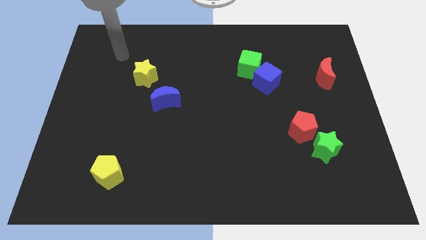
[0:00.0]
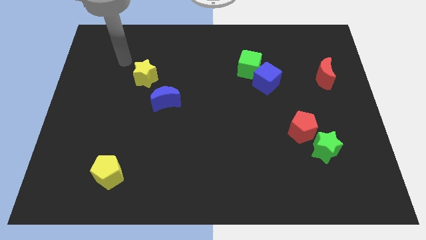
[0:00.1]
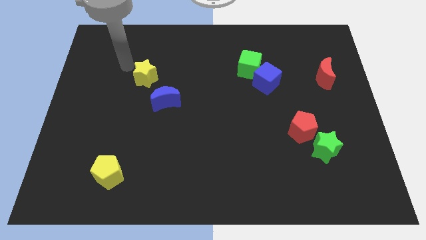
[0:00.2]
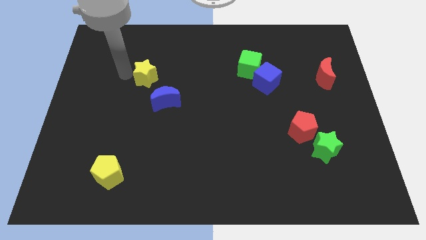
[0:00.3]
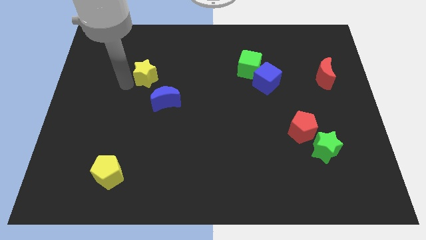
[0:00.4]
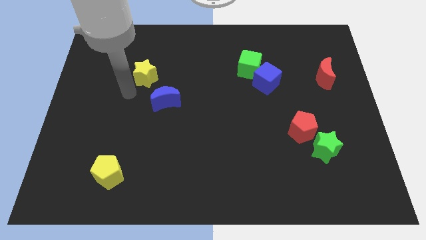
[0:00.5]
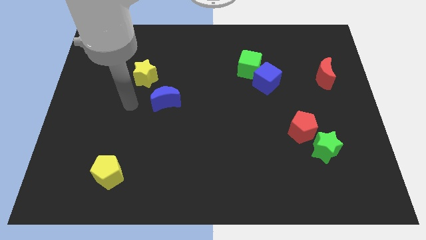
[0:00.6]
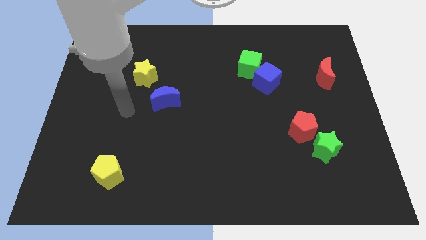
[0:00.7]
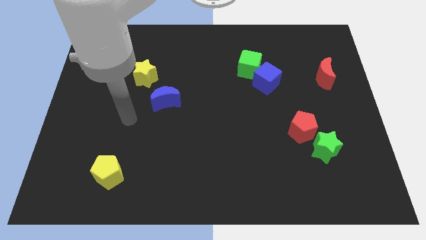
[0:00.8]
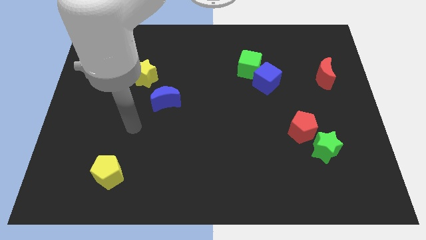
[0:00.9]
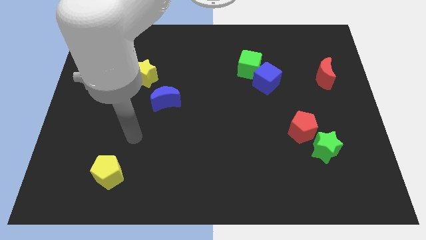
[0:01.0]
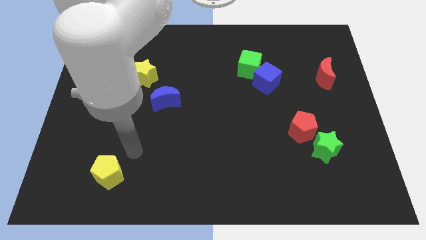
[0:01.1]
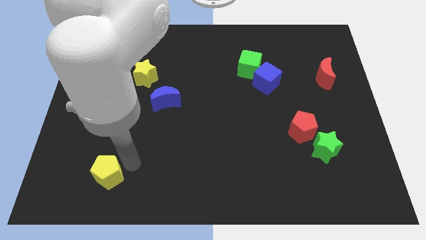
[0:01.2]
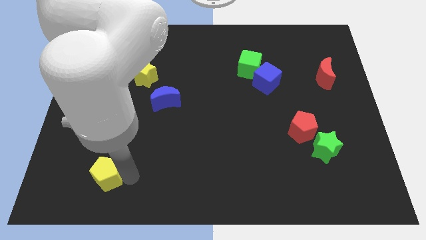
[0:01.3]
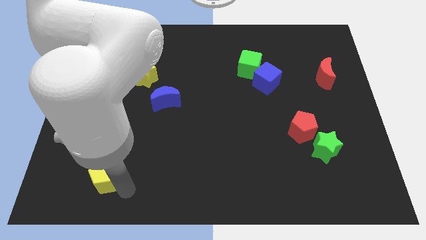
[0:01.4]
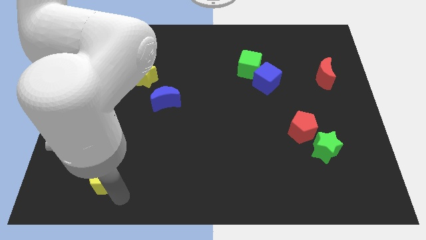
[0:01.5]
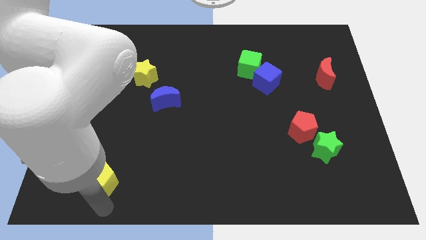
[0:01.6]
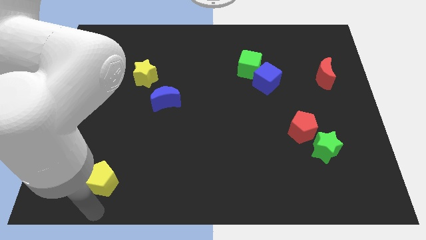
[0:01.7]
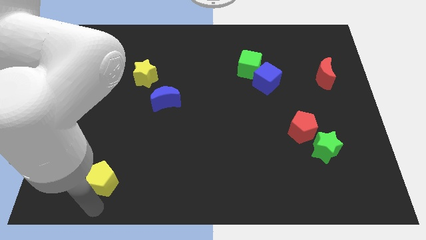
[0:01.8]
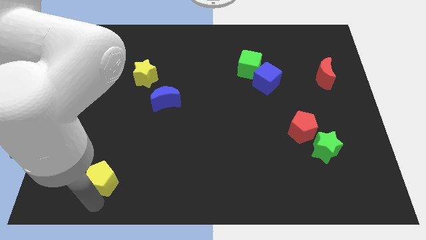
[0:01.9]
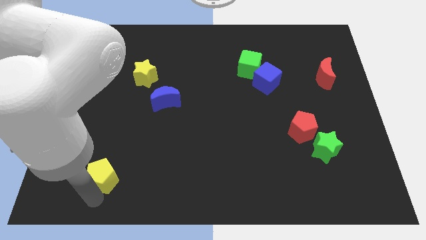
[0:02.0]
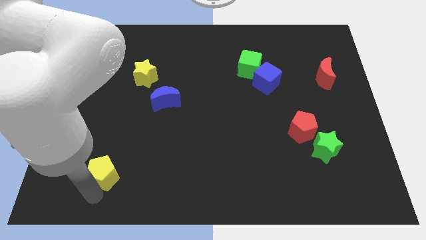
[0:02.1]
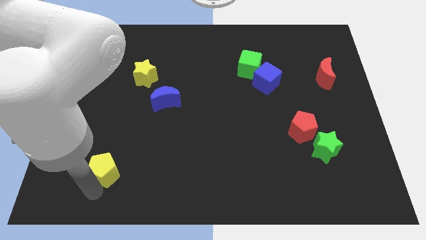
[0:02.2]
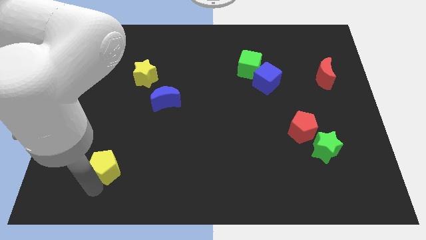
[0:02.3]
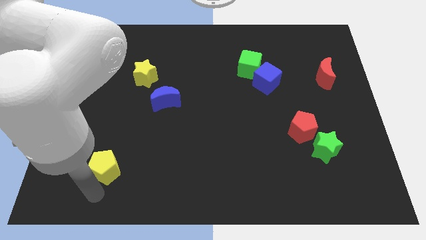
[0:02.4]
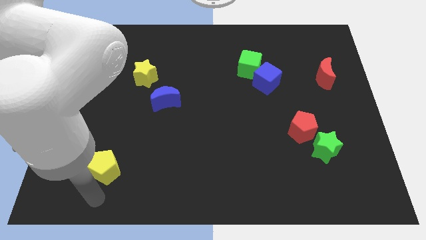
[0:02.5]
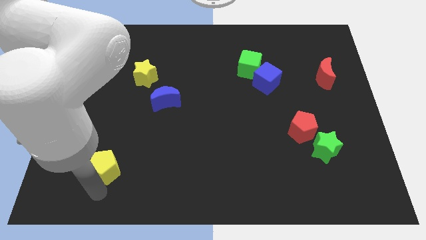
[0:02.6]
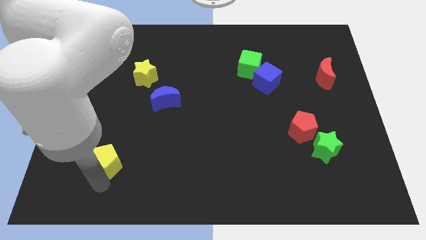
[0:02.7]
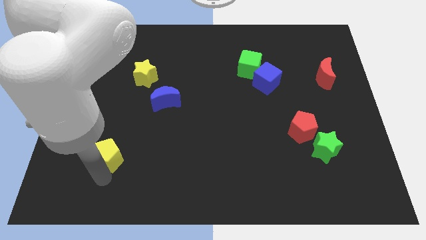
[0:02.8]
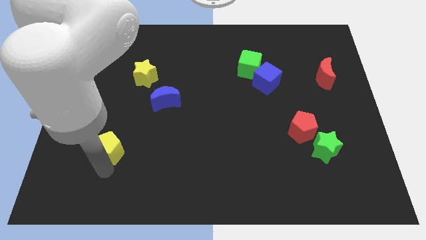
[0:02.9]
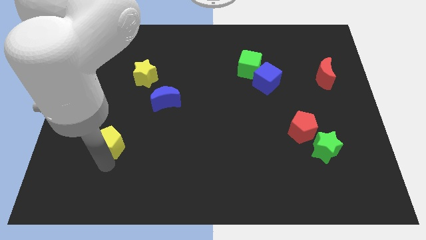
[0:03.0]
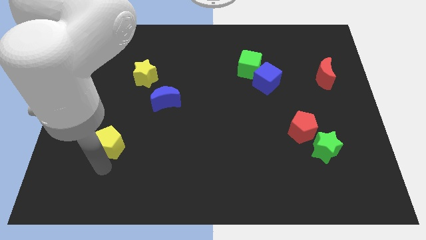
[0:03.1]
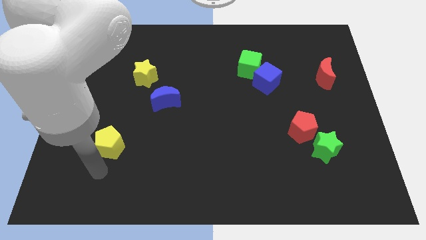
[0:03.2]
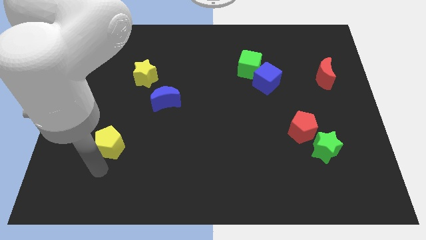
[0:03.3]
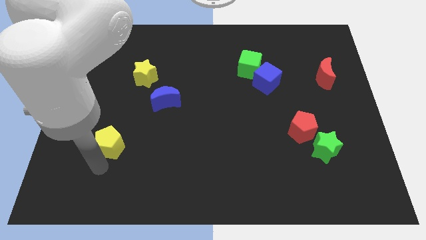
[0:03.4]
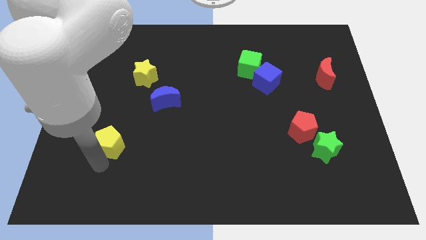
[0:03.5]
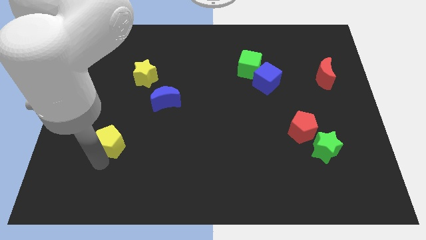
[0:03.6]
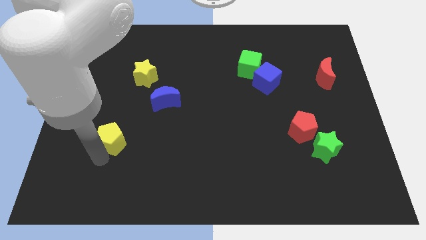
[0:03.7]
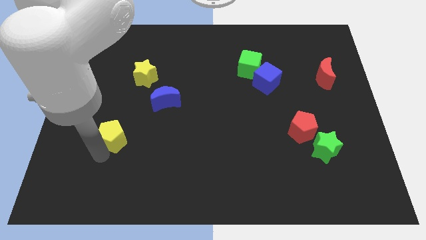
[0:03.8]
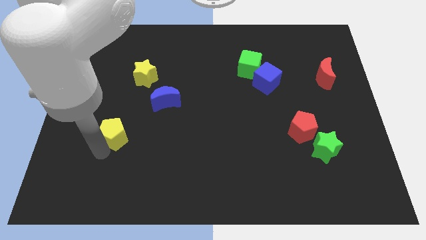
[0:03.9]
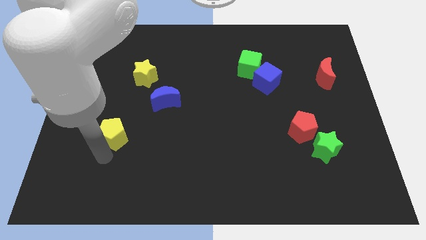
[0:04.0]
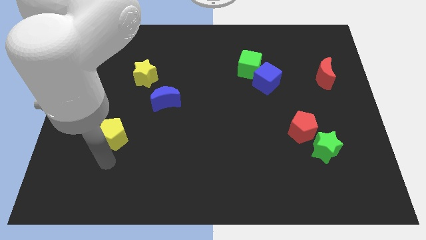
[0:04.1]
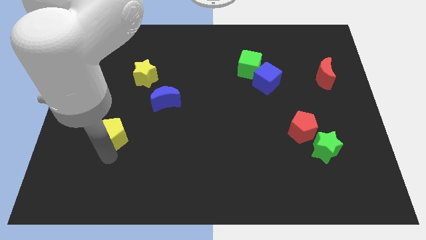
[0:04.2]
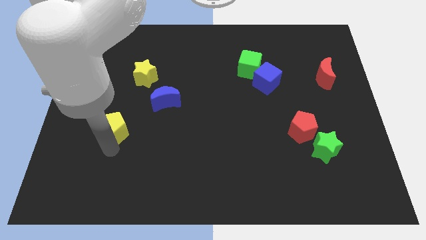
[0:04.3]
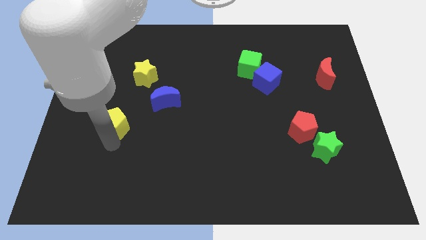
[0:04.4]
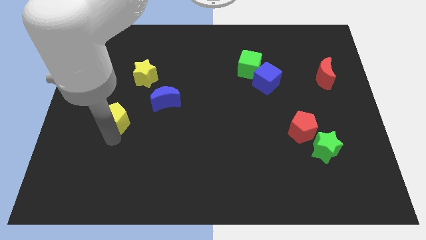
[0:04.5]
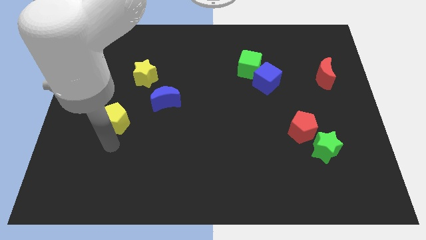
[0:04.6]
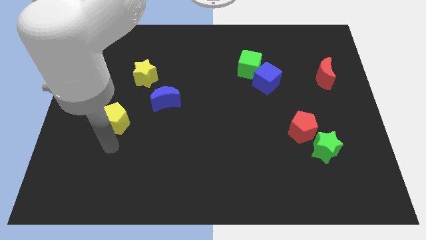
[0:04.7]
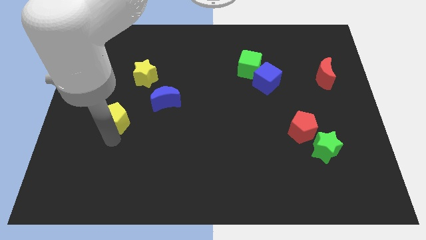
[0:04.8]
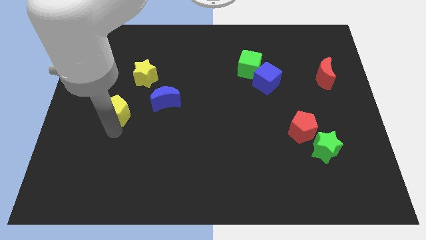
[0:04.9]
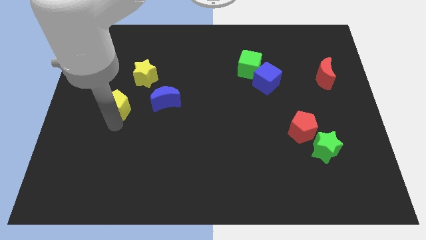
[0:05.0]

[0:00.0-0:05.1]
push the yellow pentagon to the bottom left side of the yellow star

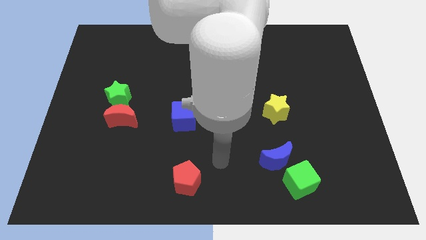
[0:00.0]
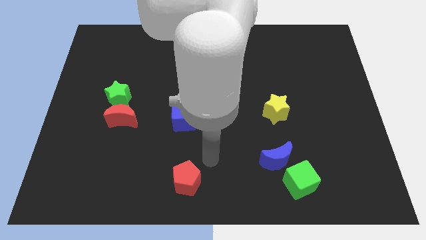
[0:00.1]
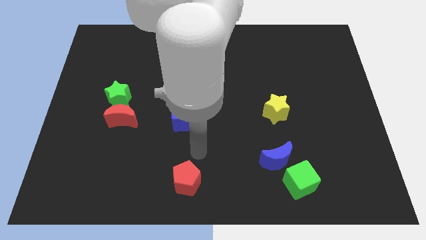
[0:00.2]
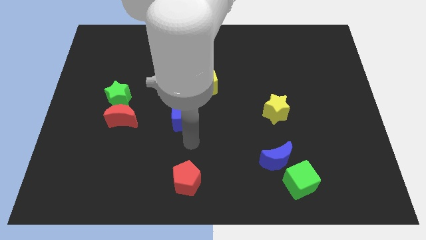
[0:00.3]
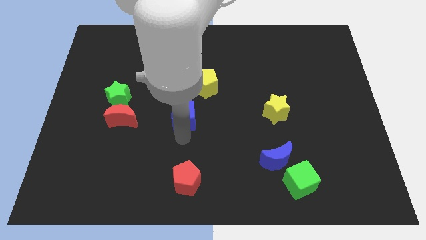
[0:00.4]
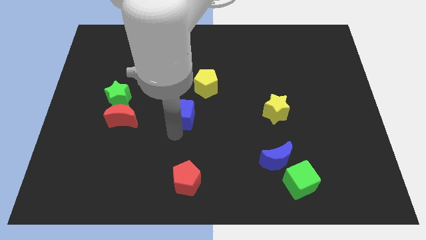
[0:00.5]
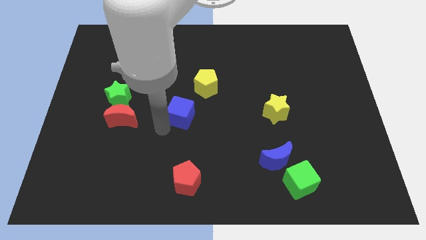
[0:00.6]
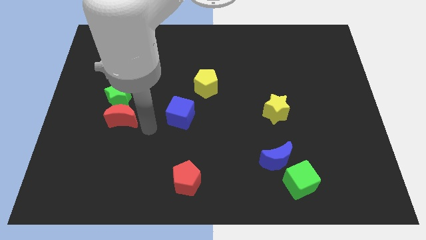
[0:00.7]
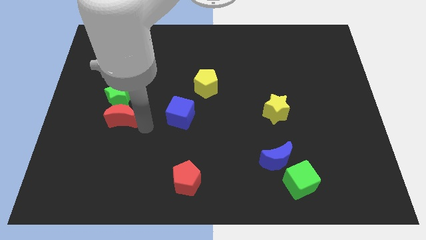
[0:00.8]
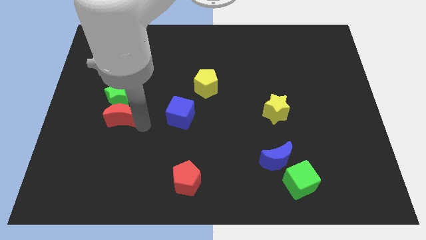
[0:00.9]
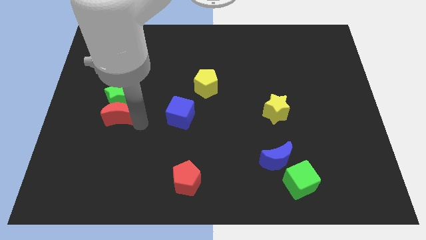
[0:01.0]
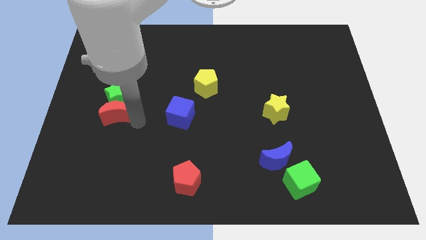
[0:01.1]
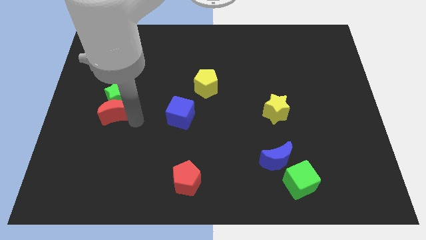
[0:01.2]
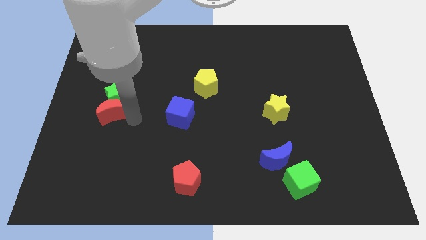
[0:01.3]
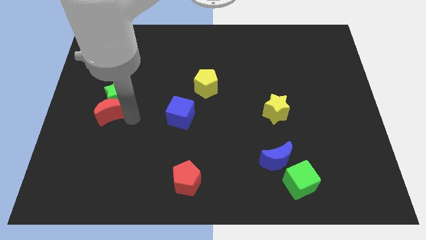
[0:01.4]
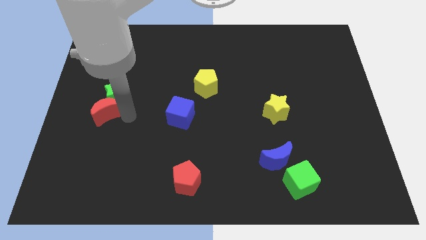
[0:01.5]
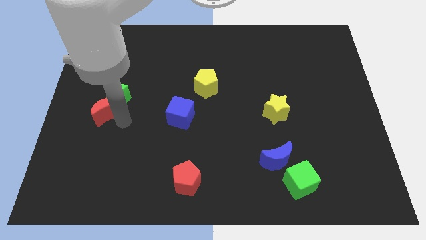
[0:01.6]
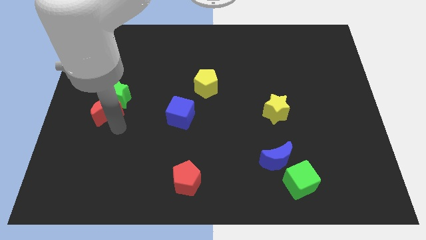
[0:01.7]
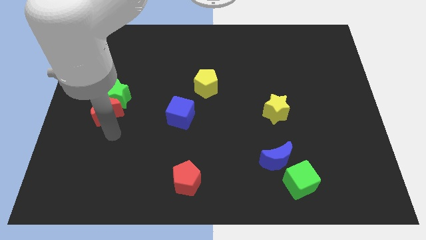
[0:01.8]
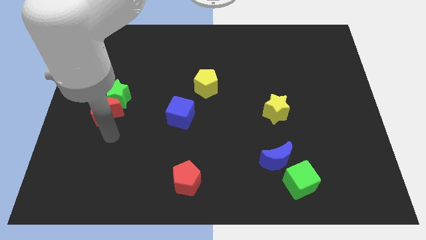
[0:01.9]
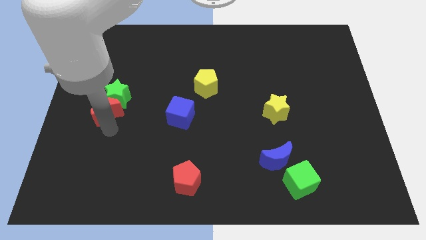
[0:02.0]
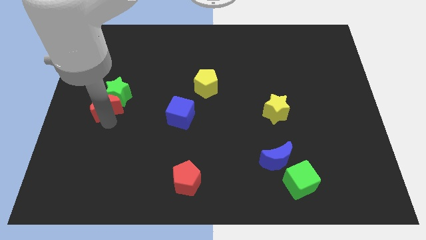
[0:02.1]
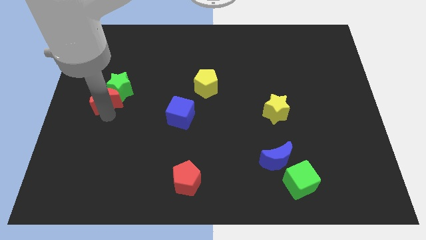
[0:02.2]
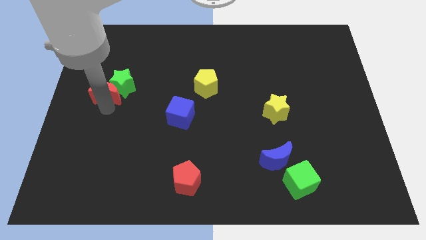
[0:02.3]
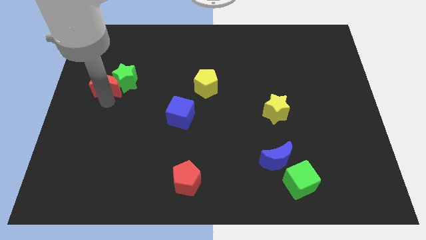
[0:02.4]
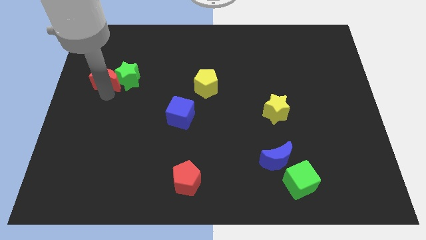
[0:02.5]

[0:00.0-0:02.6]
push the red moon diagonally up and to the left of the green star
